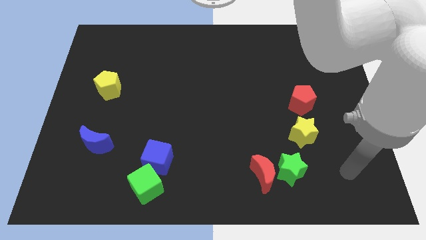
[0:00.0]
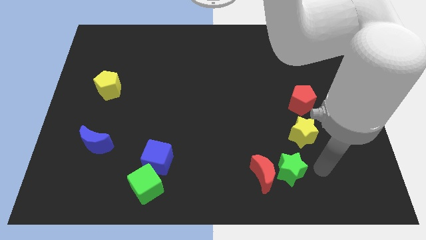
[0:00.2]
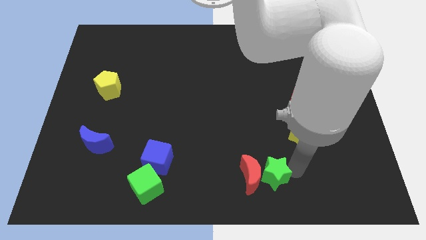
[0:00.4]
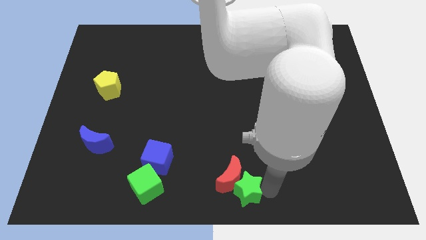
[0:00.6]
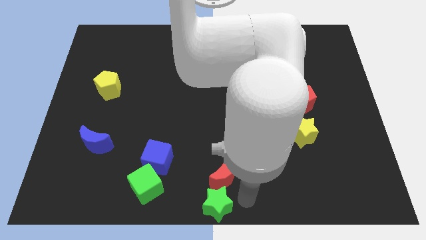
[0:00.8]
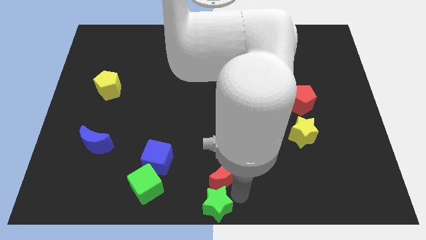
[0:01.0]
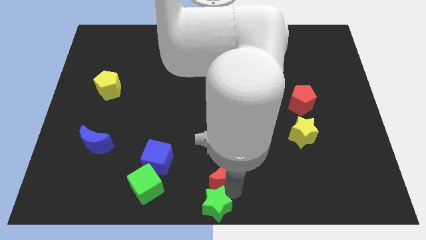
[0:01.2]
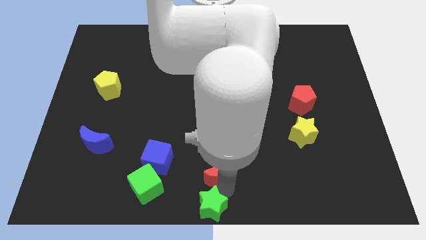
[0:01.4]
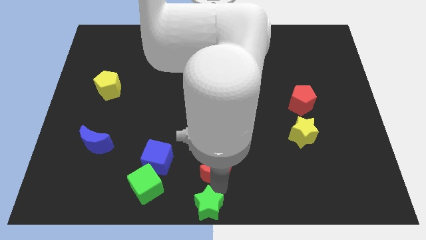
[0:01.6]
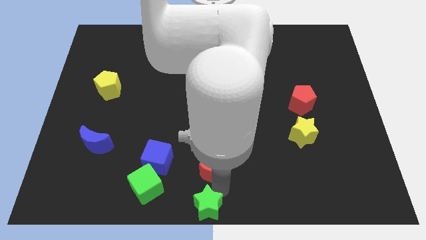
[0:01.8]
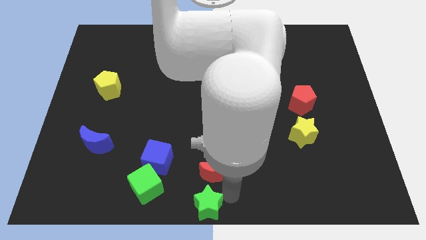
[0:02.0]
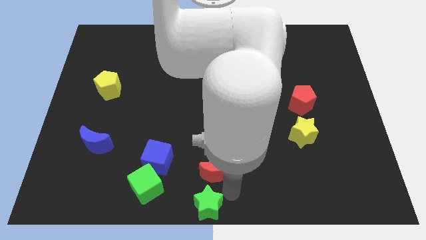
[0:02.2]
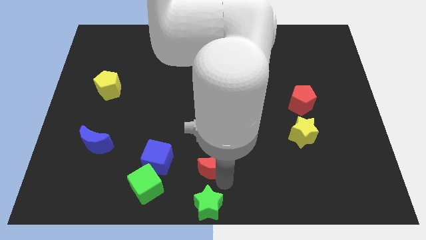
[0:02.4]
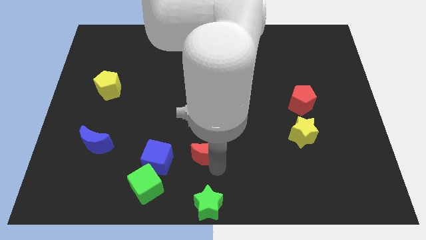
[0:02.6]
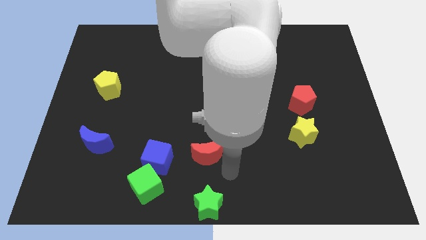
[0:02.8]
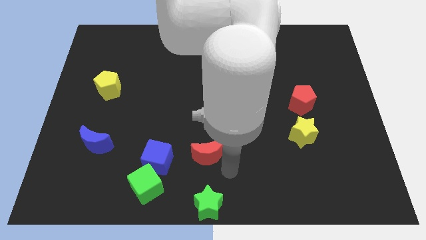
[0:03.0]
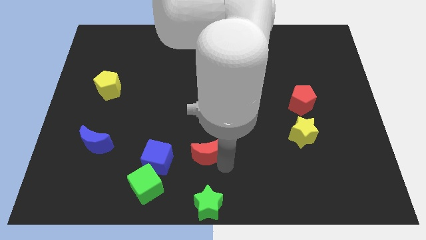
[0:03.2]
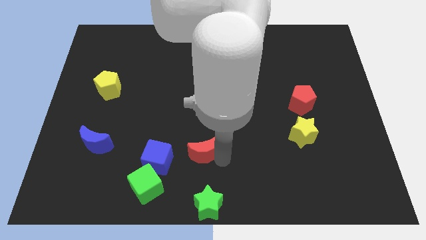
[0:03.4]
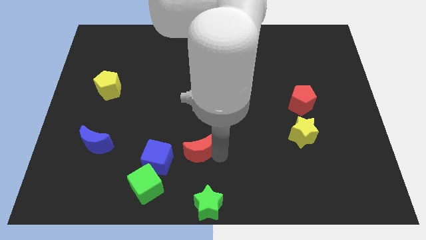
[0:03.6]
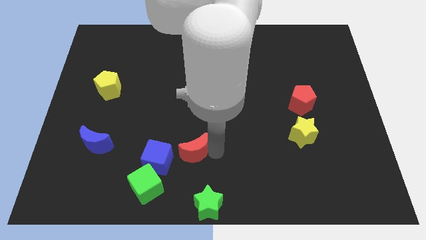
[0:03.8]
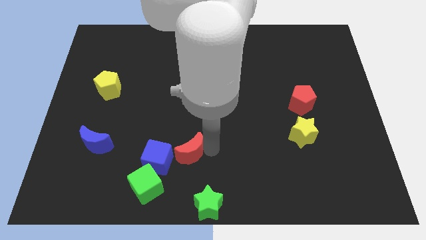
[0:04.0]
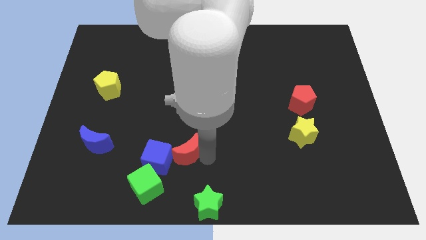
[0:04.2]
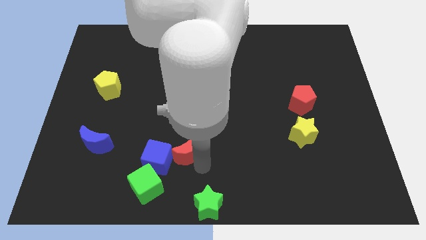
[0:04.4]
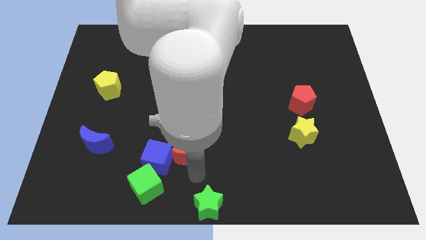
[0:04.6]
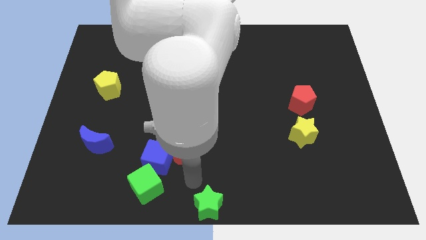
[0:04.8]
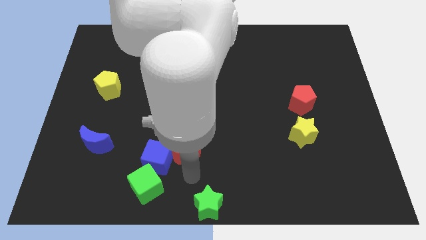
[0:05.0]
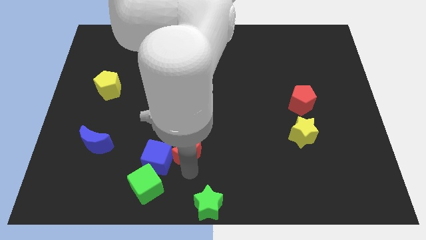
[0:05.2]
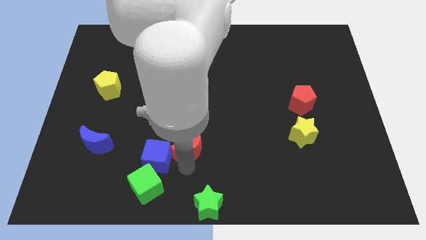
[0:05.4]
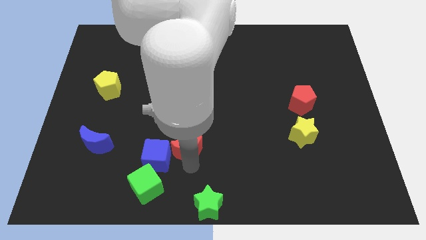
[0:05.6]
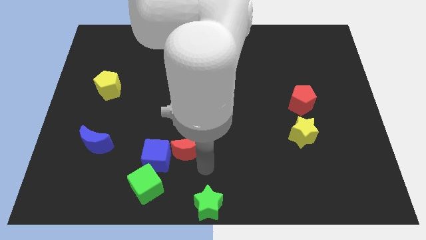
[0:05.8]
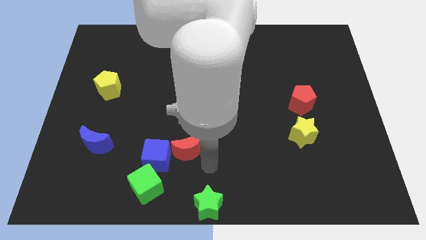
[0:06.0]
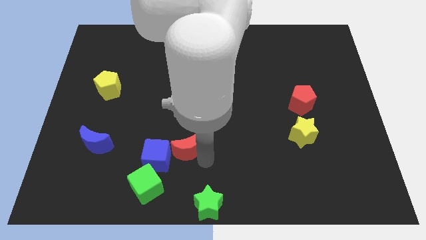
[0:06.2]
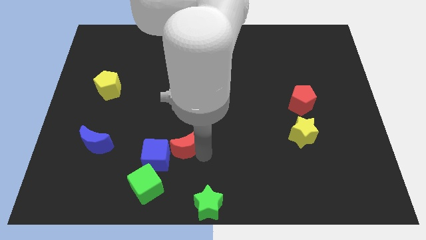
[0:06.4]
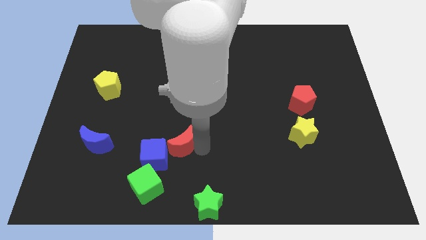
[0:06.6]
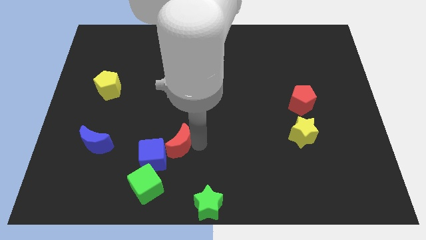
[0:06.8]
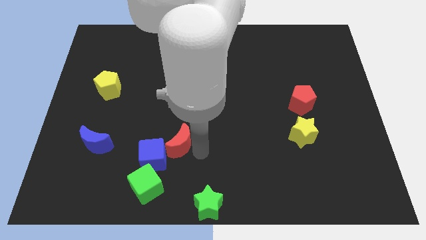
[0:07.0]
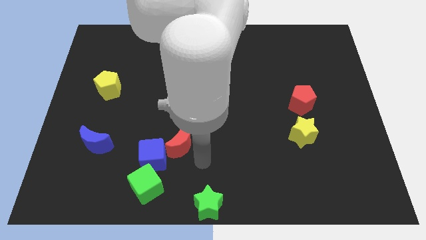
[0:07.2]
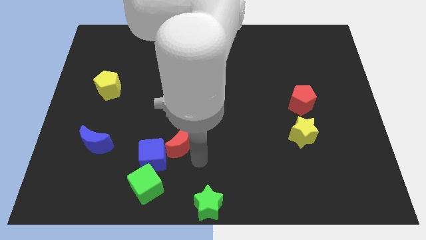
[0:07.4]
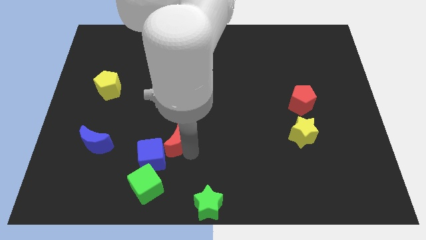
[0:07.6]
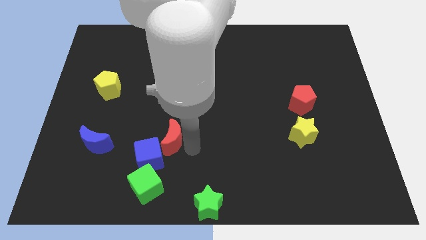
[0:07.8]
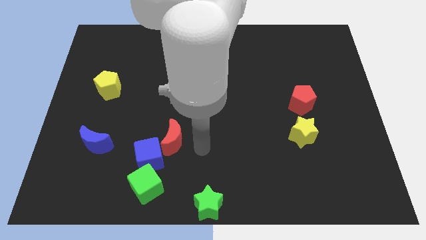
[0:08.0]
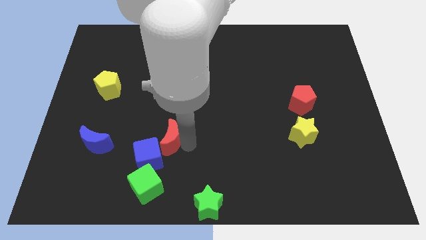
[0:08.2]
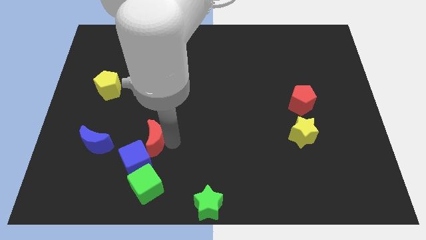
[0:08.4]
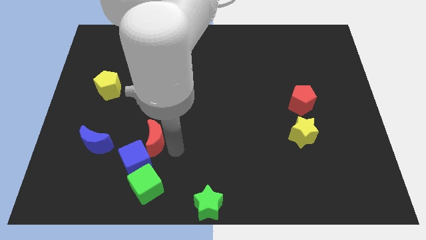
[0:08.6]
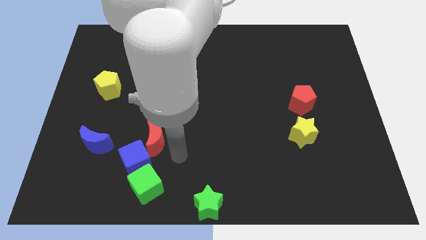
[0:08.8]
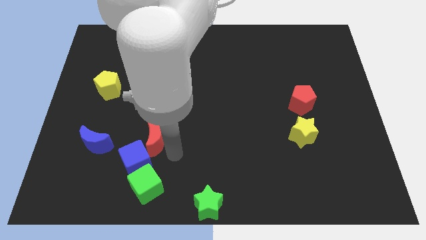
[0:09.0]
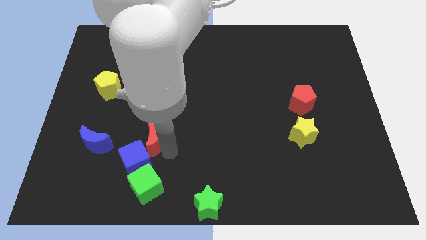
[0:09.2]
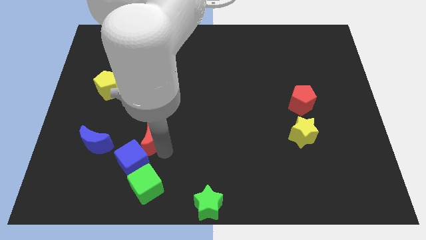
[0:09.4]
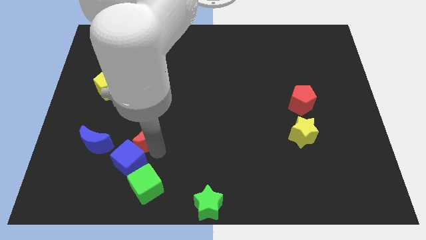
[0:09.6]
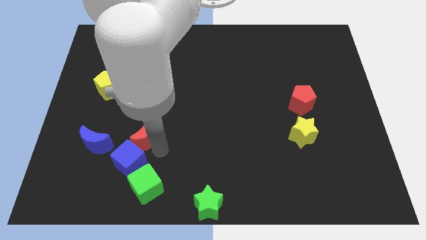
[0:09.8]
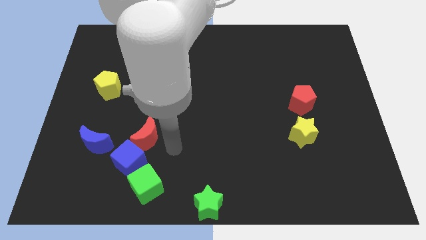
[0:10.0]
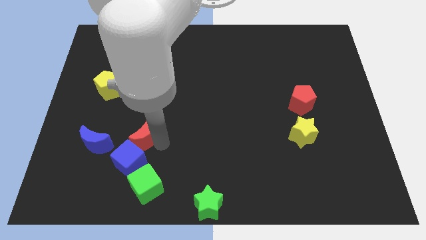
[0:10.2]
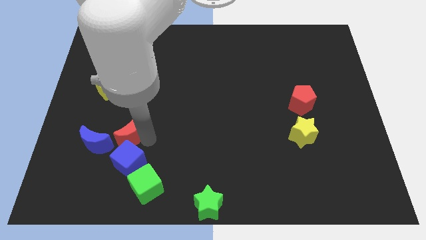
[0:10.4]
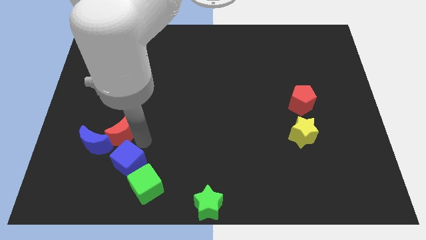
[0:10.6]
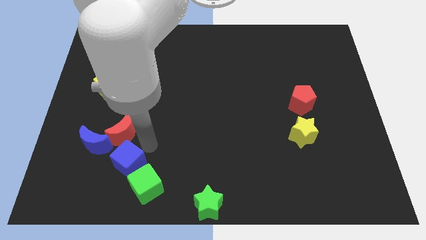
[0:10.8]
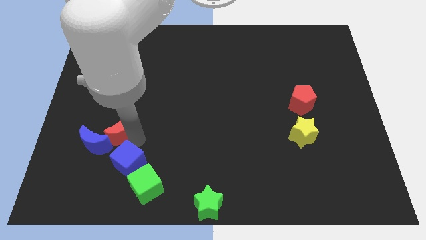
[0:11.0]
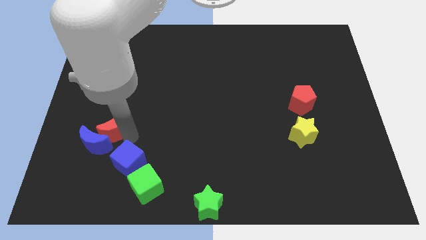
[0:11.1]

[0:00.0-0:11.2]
move the red moon to the bottom of the yellow pentagon

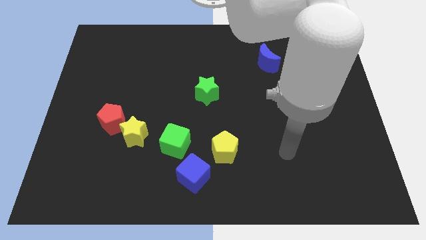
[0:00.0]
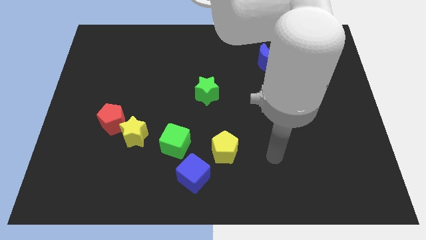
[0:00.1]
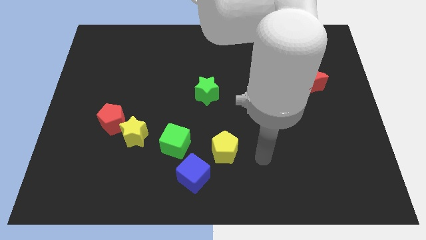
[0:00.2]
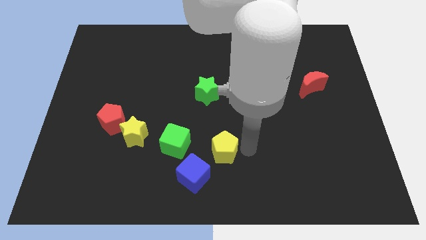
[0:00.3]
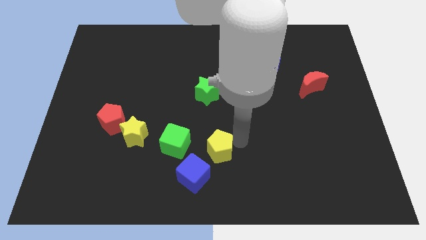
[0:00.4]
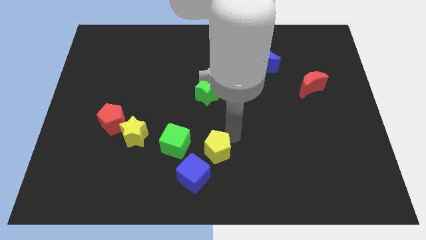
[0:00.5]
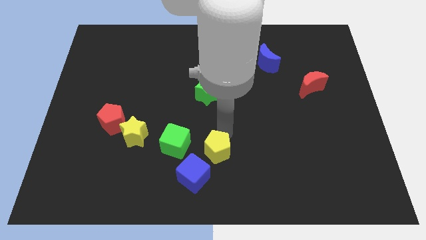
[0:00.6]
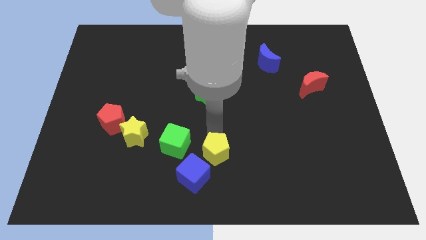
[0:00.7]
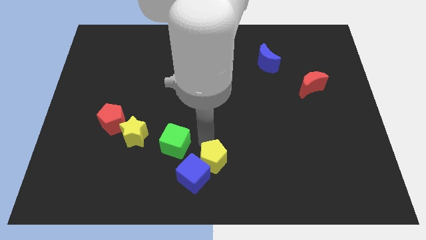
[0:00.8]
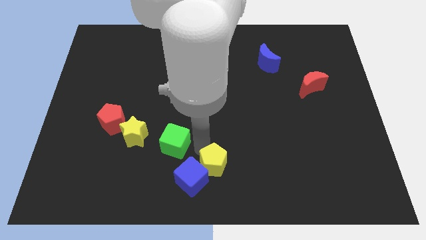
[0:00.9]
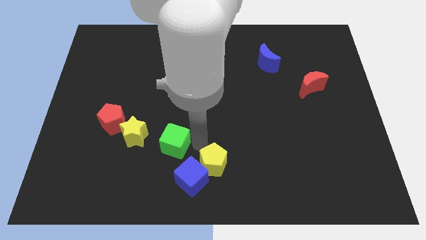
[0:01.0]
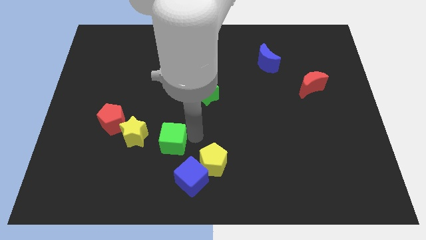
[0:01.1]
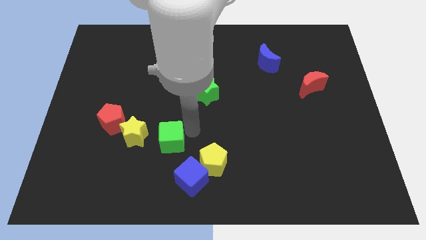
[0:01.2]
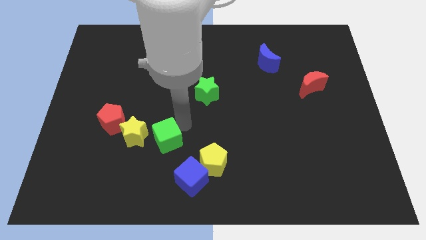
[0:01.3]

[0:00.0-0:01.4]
slide the red pentagon just left of the green cube
